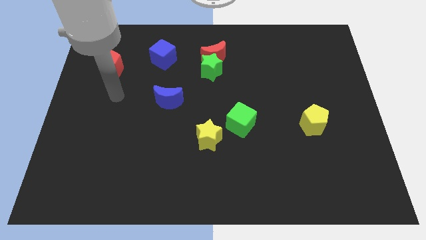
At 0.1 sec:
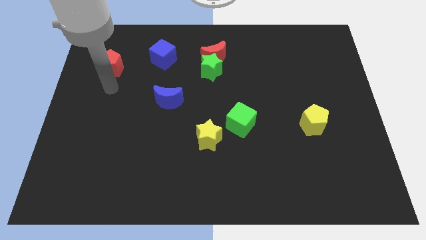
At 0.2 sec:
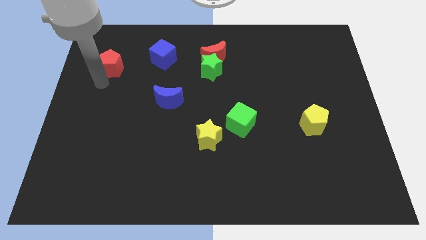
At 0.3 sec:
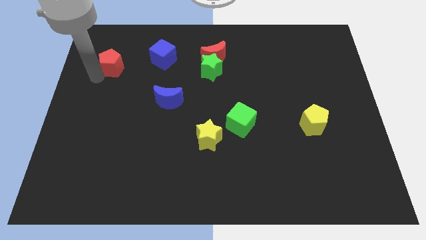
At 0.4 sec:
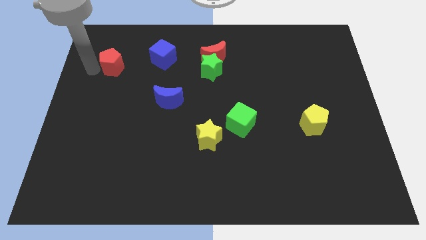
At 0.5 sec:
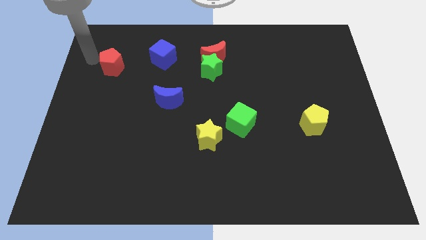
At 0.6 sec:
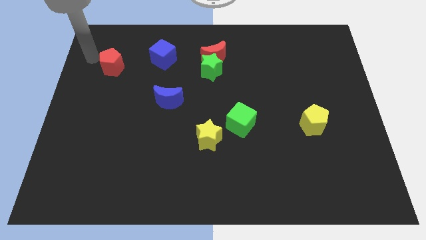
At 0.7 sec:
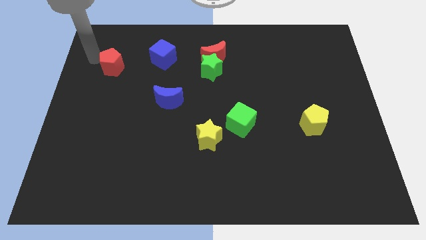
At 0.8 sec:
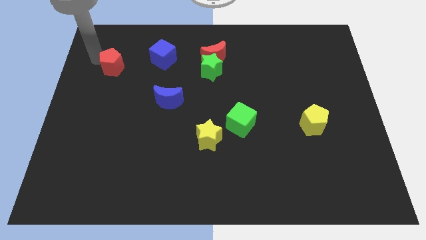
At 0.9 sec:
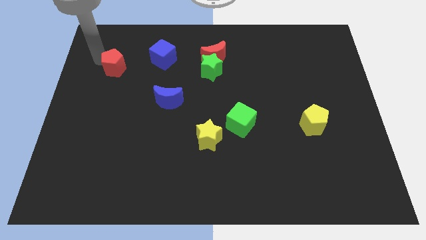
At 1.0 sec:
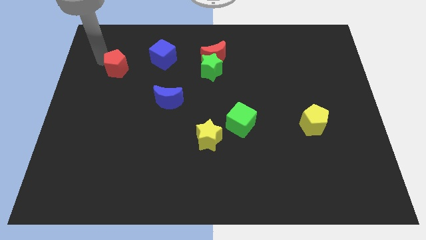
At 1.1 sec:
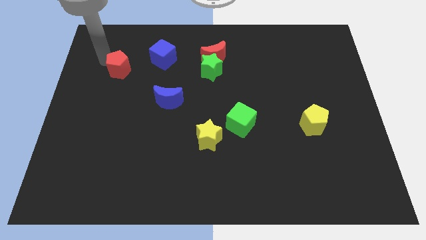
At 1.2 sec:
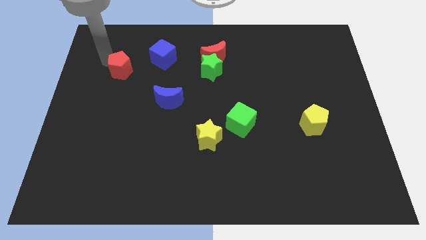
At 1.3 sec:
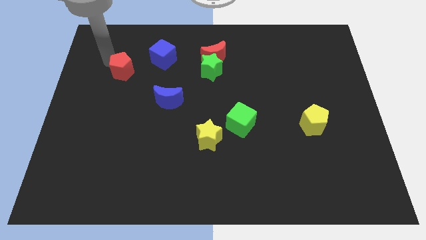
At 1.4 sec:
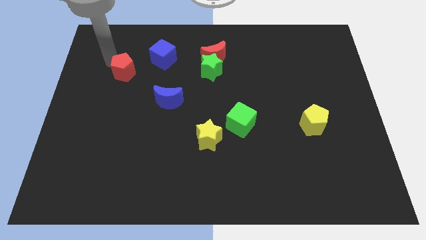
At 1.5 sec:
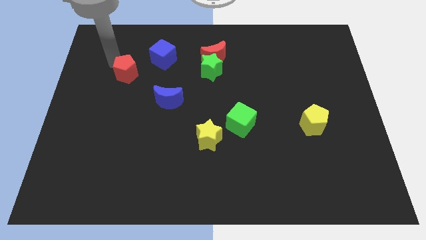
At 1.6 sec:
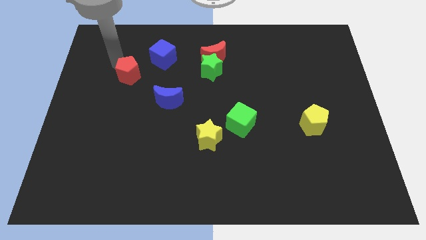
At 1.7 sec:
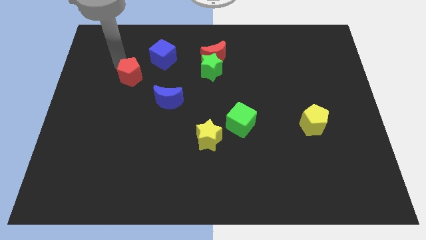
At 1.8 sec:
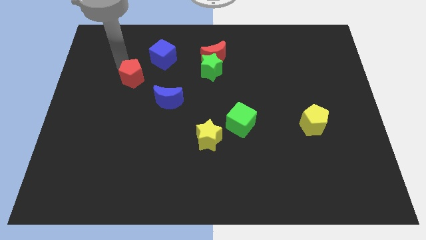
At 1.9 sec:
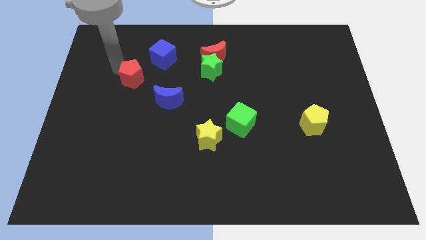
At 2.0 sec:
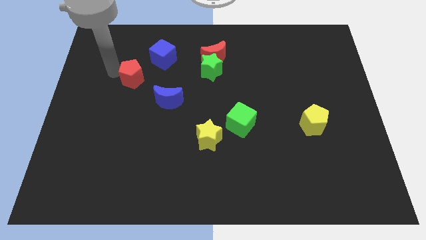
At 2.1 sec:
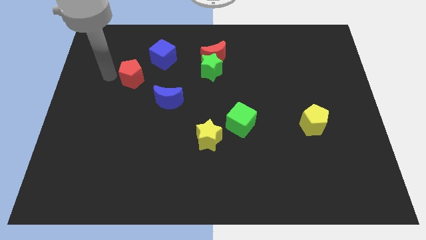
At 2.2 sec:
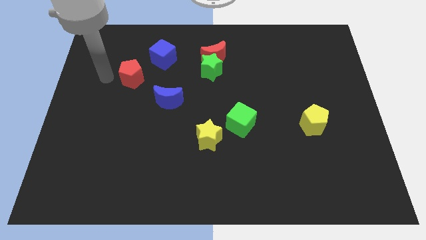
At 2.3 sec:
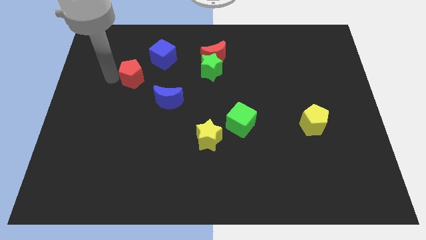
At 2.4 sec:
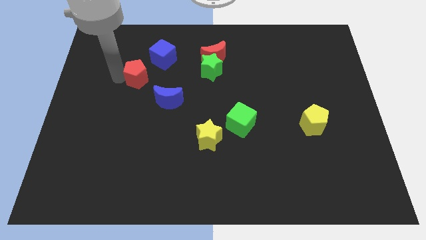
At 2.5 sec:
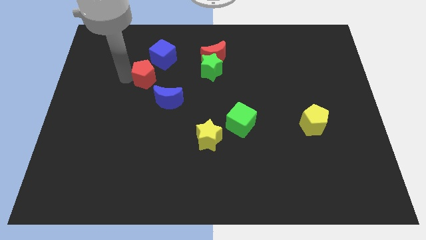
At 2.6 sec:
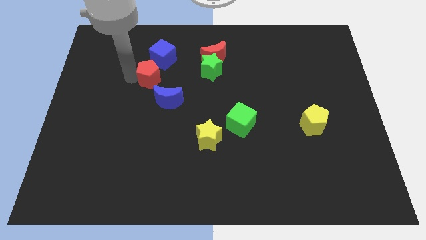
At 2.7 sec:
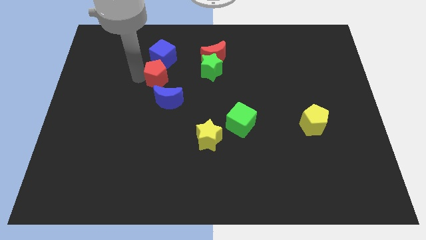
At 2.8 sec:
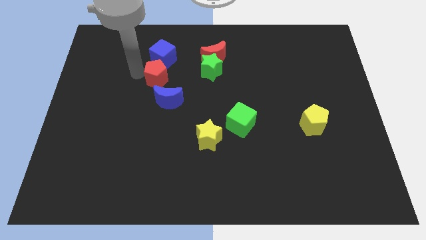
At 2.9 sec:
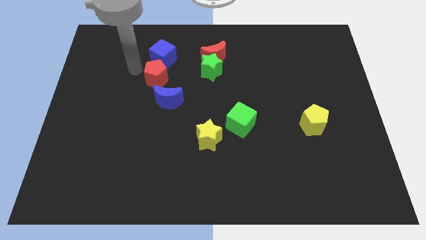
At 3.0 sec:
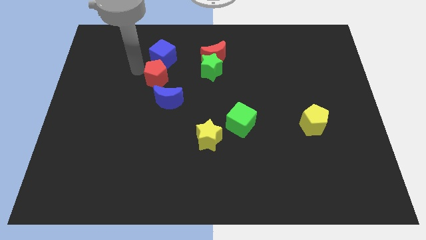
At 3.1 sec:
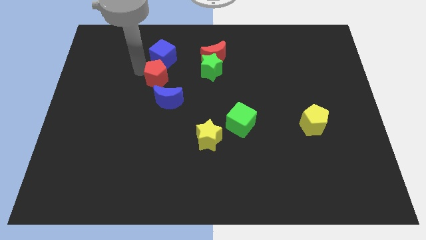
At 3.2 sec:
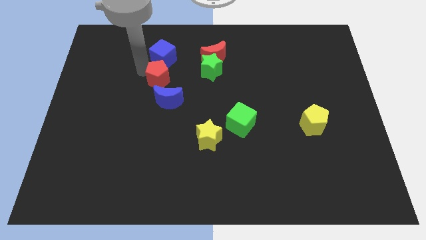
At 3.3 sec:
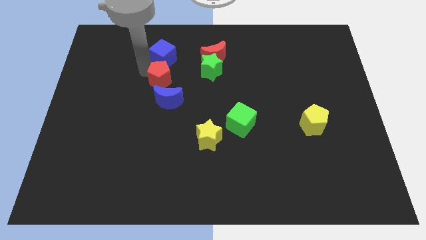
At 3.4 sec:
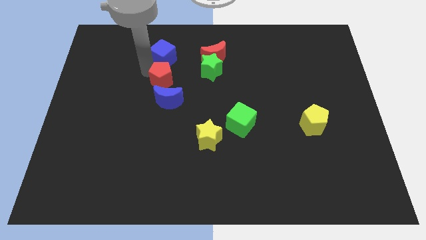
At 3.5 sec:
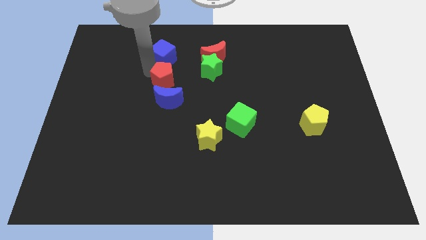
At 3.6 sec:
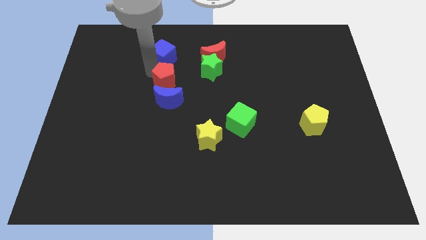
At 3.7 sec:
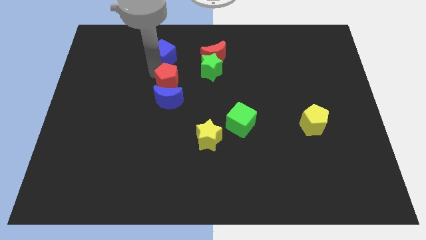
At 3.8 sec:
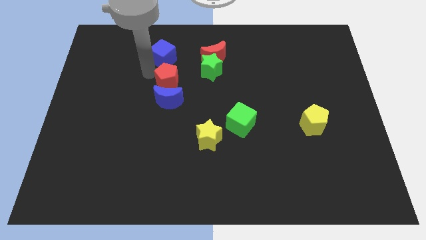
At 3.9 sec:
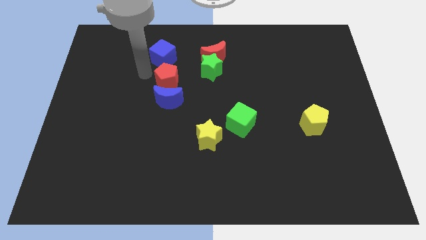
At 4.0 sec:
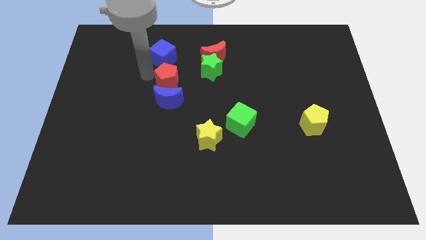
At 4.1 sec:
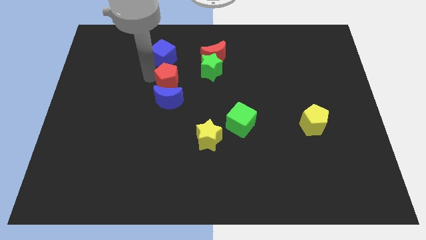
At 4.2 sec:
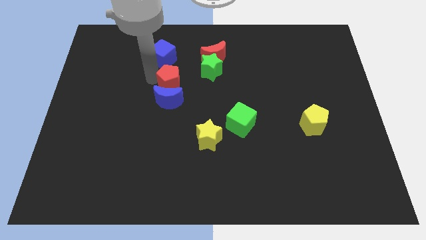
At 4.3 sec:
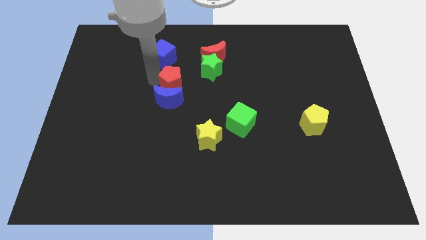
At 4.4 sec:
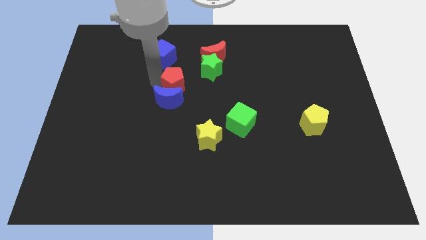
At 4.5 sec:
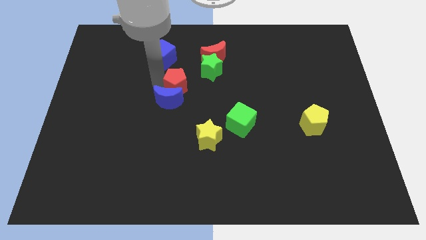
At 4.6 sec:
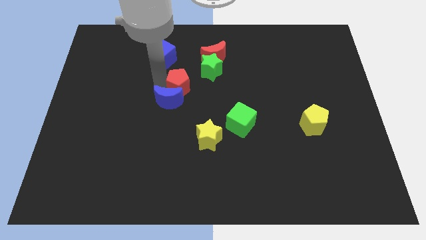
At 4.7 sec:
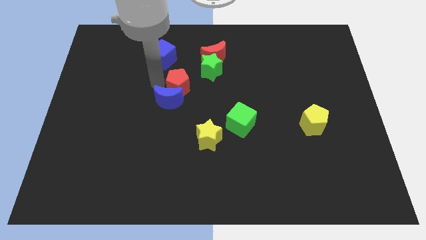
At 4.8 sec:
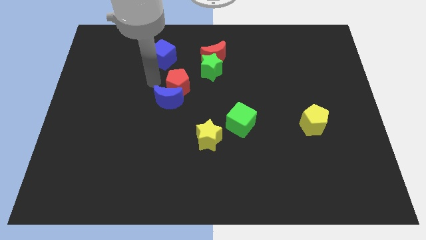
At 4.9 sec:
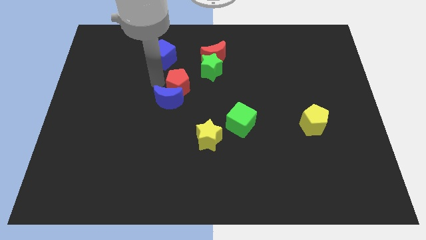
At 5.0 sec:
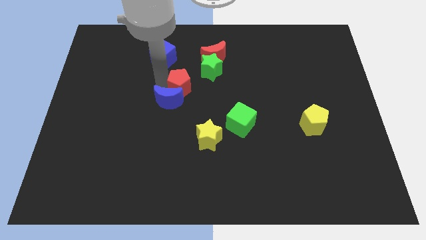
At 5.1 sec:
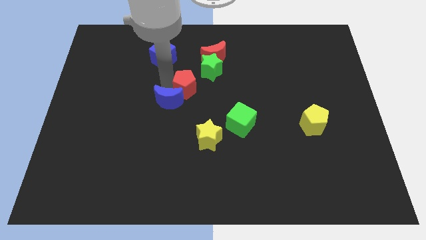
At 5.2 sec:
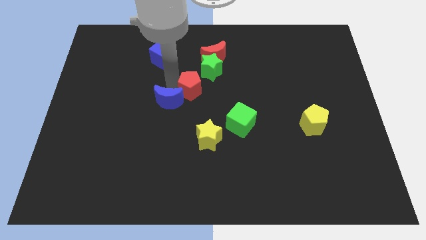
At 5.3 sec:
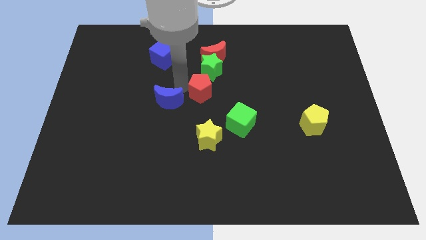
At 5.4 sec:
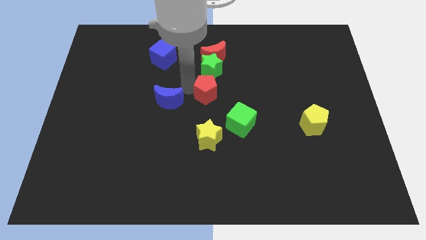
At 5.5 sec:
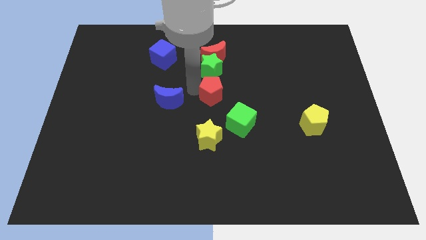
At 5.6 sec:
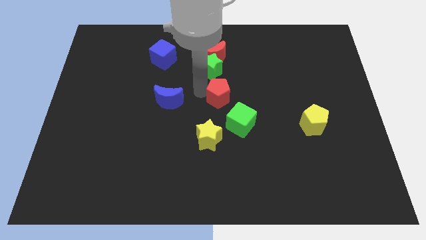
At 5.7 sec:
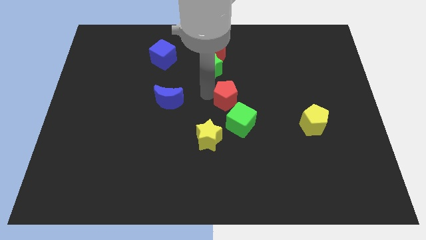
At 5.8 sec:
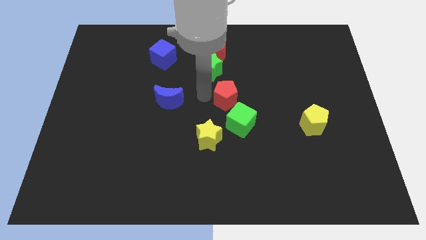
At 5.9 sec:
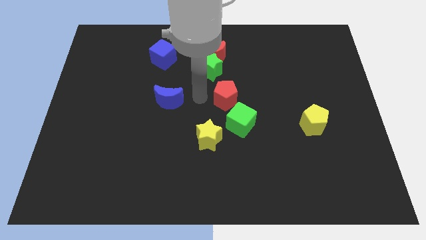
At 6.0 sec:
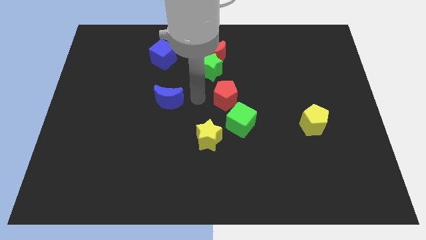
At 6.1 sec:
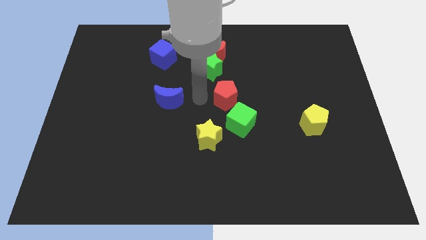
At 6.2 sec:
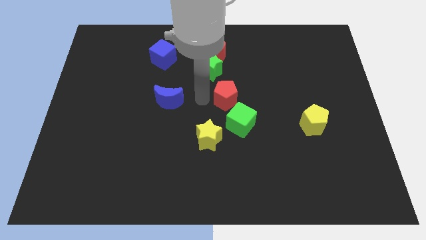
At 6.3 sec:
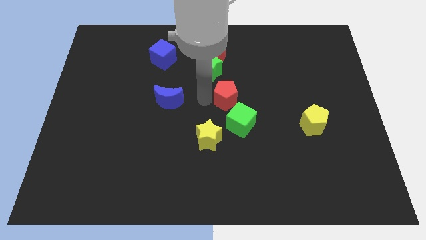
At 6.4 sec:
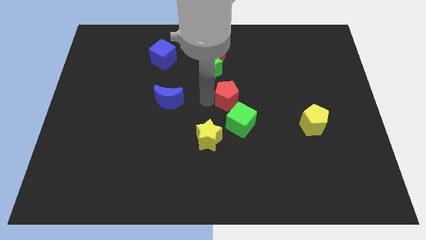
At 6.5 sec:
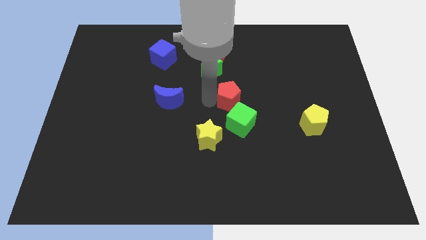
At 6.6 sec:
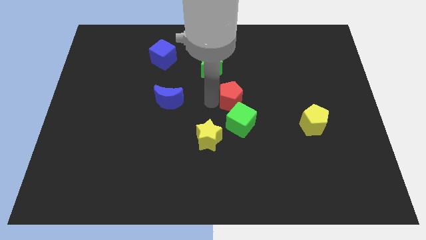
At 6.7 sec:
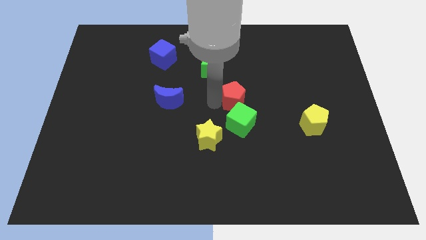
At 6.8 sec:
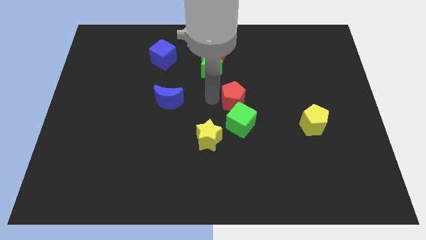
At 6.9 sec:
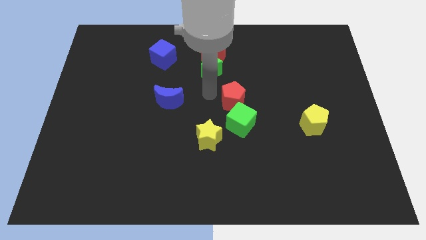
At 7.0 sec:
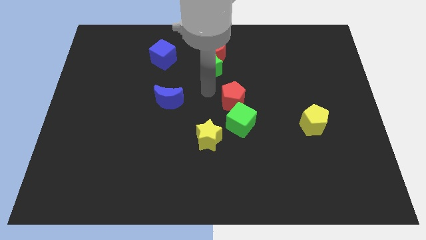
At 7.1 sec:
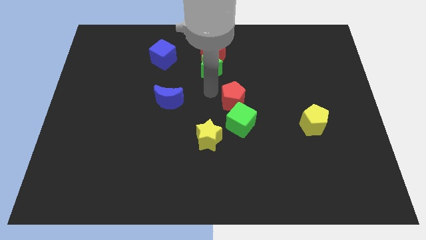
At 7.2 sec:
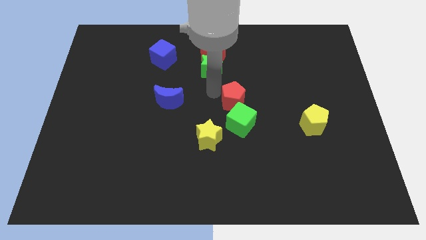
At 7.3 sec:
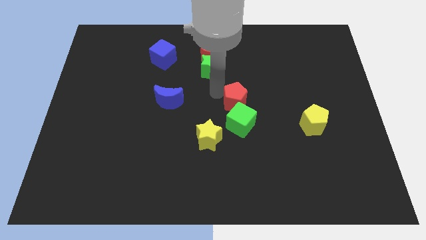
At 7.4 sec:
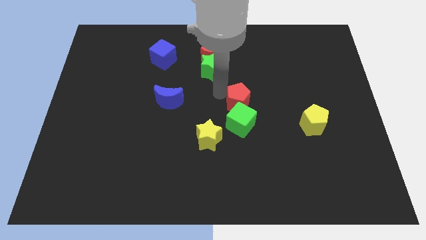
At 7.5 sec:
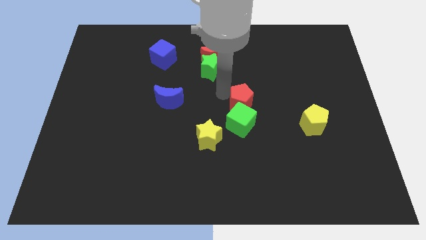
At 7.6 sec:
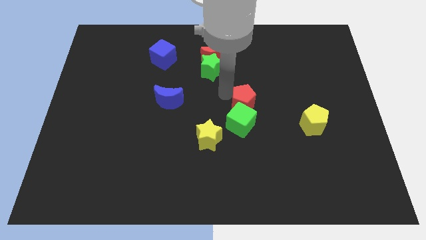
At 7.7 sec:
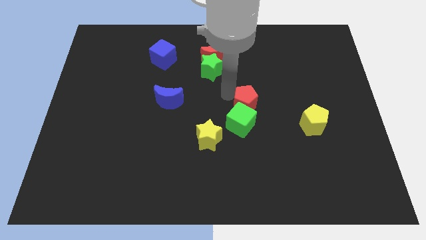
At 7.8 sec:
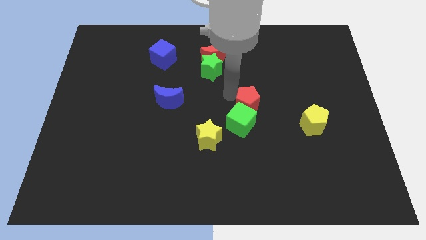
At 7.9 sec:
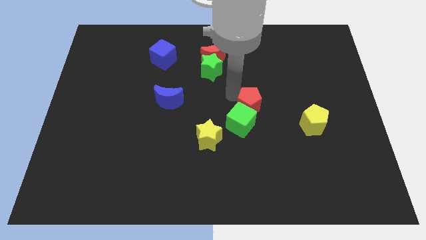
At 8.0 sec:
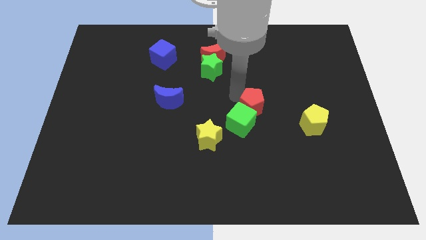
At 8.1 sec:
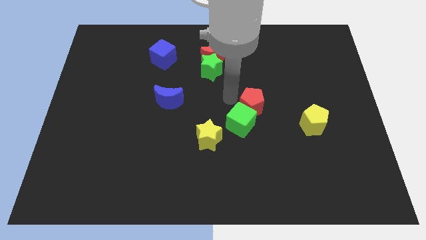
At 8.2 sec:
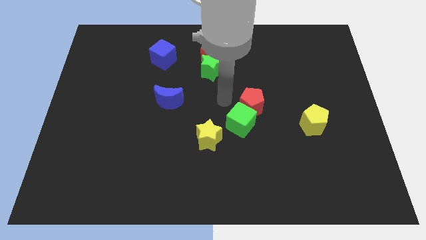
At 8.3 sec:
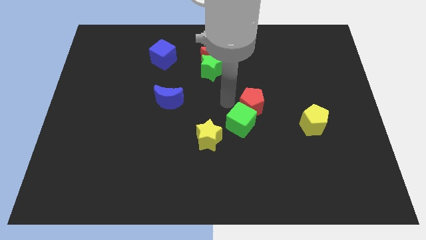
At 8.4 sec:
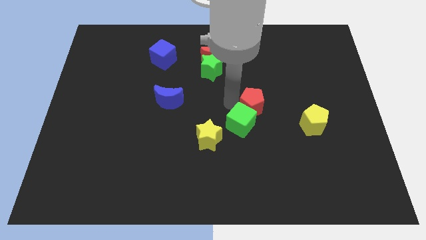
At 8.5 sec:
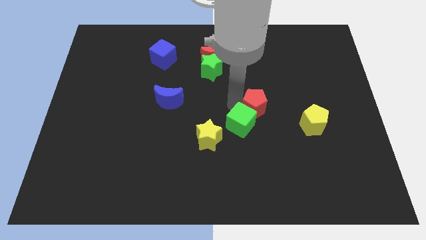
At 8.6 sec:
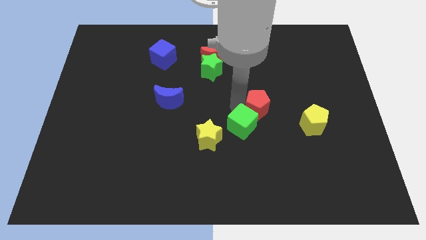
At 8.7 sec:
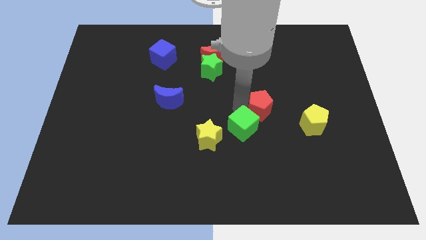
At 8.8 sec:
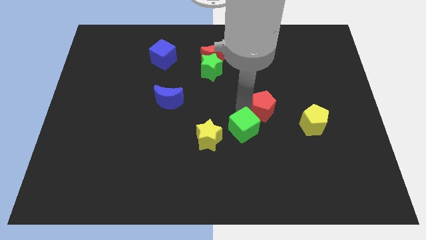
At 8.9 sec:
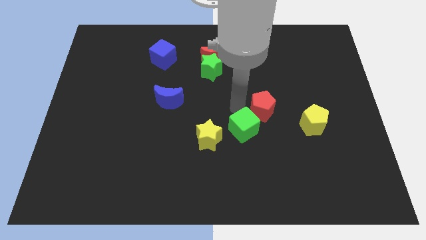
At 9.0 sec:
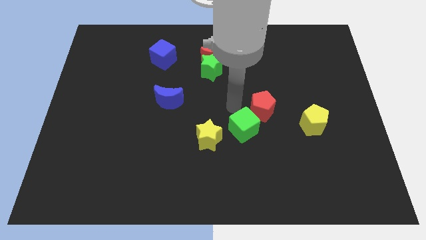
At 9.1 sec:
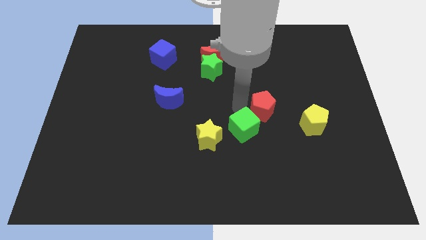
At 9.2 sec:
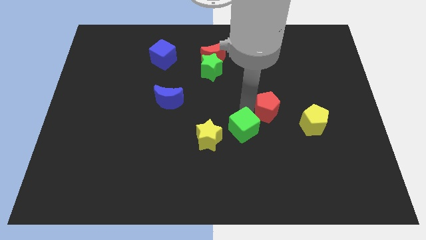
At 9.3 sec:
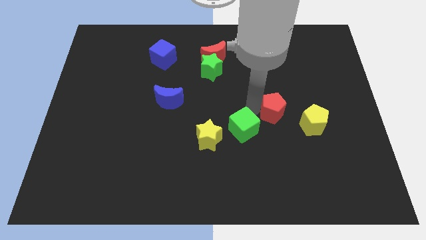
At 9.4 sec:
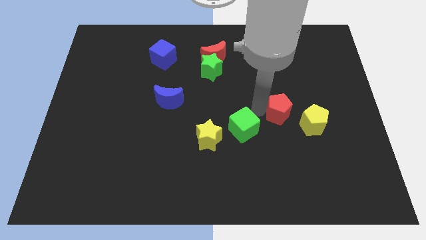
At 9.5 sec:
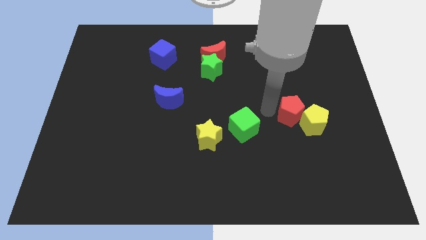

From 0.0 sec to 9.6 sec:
move the red pentagon to the yellow pentagon
